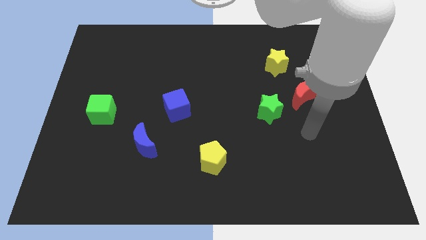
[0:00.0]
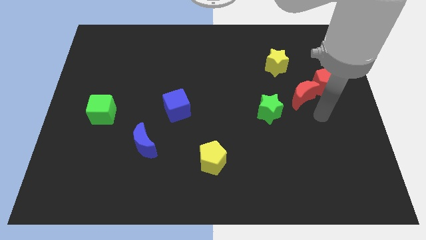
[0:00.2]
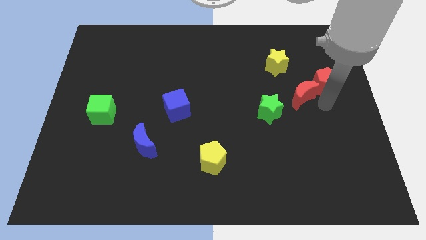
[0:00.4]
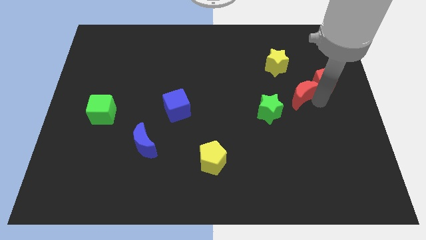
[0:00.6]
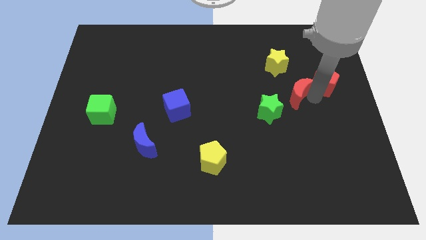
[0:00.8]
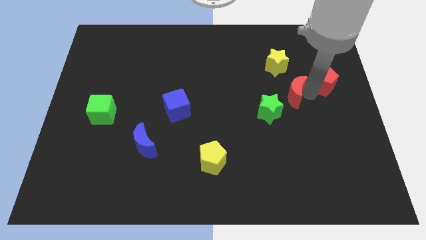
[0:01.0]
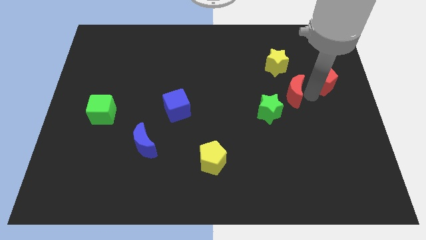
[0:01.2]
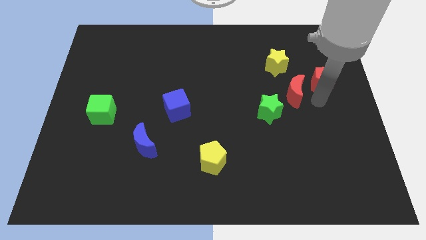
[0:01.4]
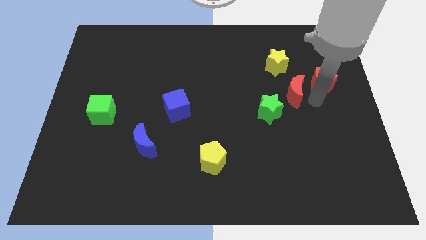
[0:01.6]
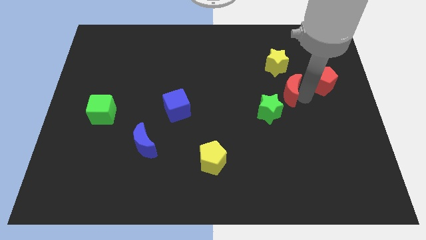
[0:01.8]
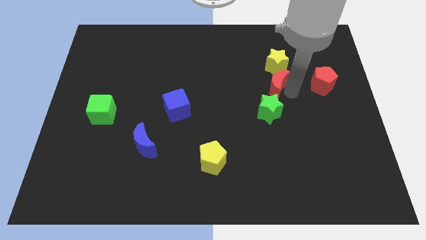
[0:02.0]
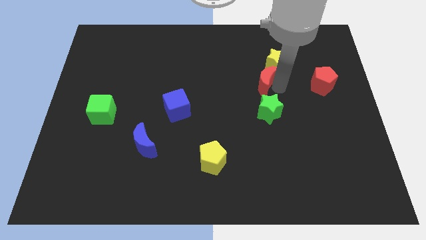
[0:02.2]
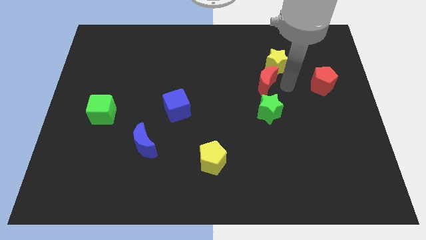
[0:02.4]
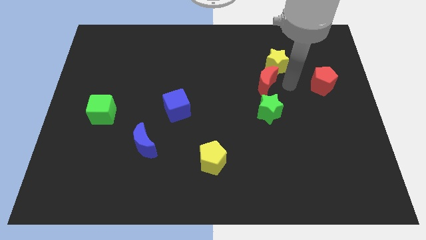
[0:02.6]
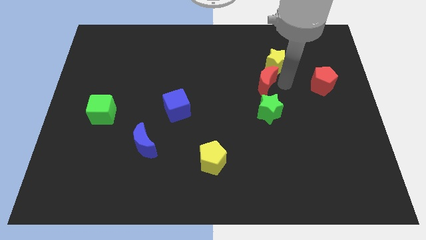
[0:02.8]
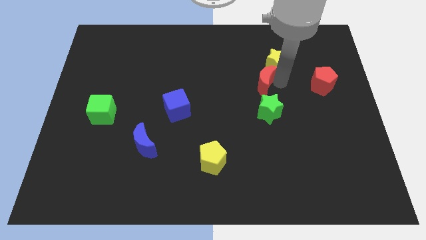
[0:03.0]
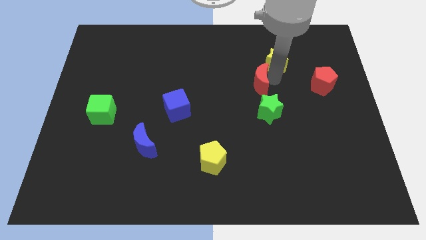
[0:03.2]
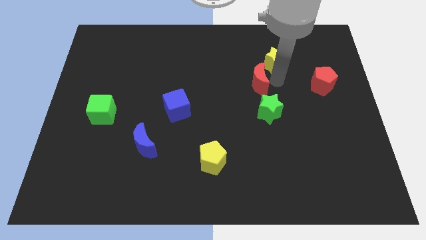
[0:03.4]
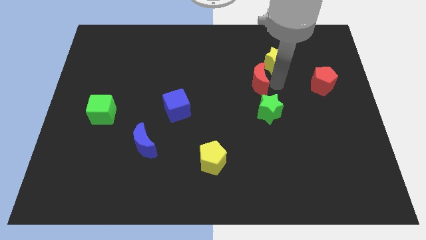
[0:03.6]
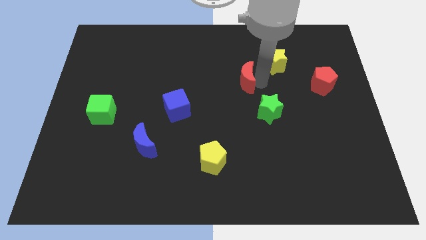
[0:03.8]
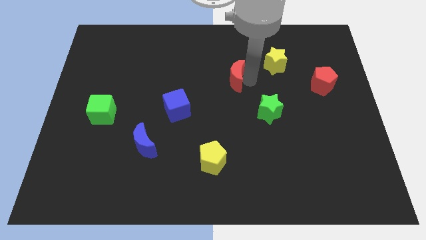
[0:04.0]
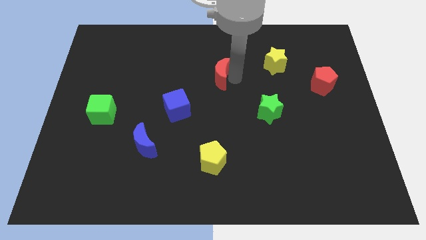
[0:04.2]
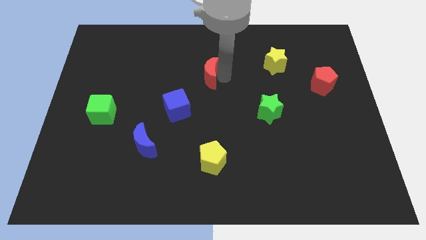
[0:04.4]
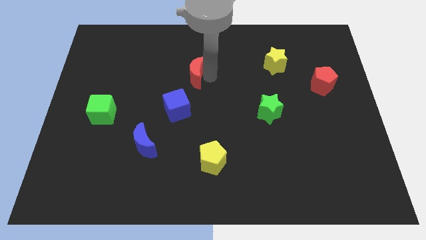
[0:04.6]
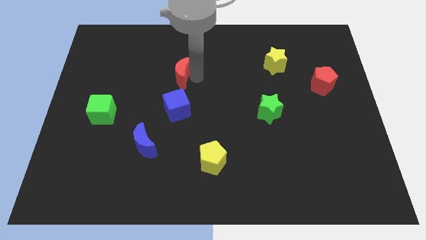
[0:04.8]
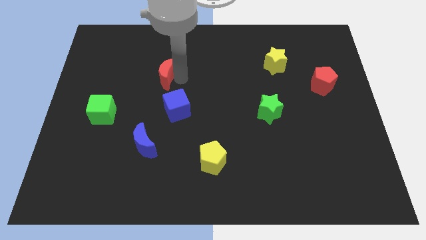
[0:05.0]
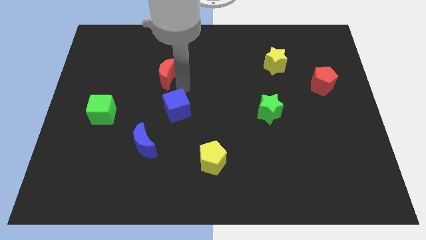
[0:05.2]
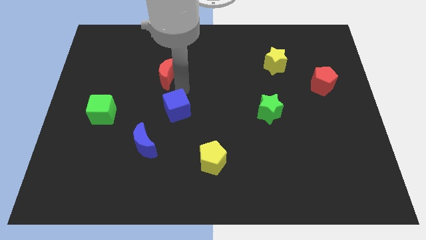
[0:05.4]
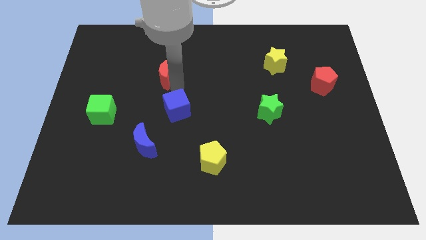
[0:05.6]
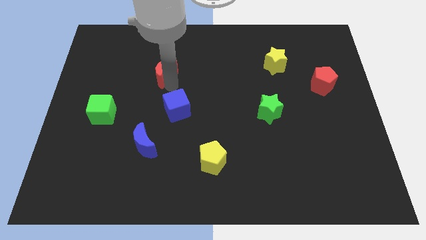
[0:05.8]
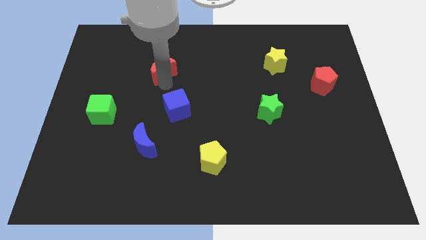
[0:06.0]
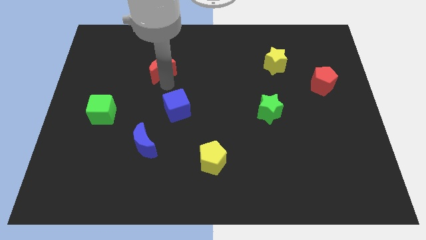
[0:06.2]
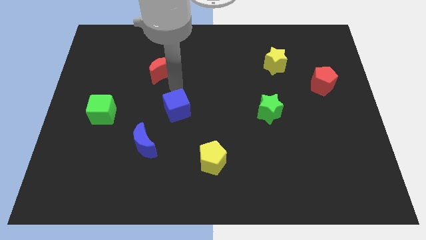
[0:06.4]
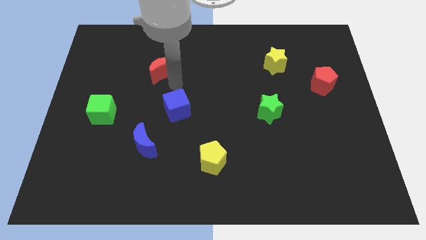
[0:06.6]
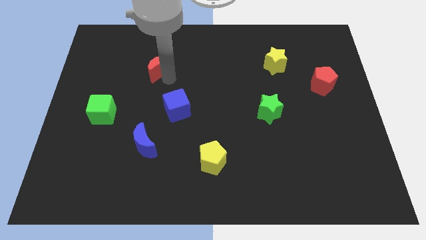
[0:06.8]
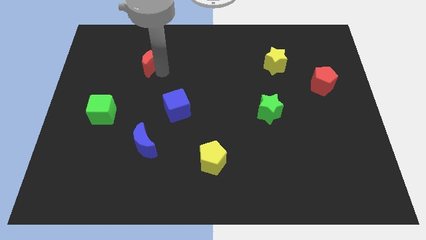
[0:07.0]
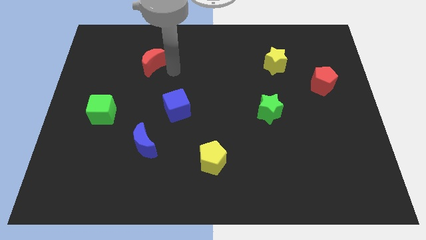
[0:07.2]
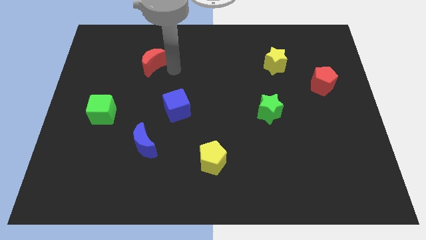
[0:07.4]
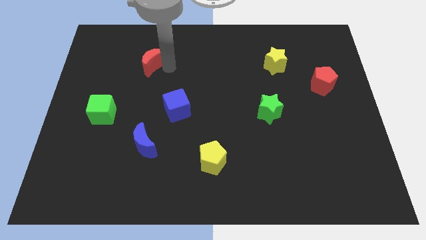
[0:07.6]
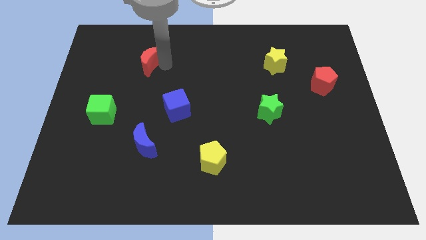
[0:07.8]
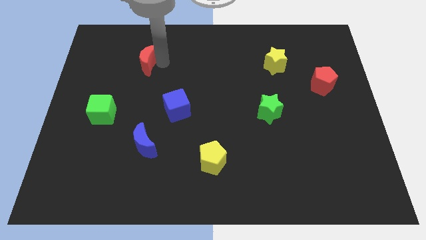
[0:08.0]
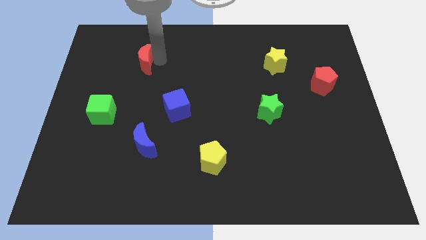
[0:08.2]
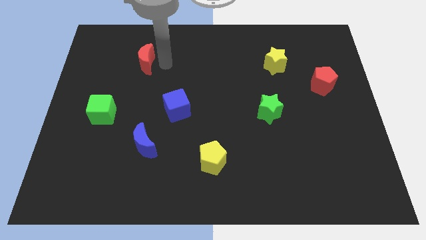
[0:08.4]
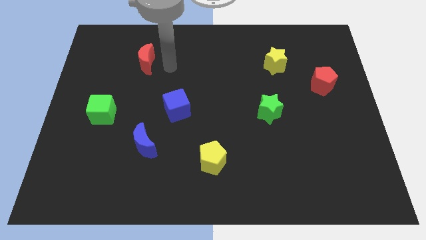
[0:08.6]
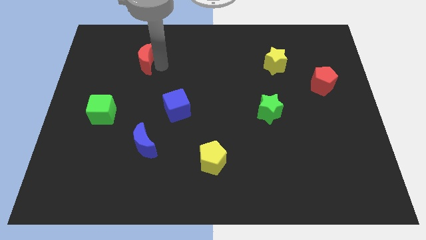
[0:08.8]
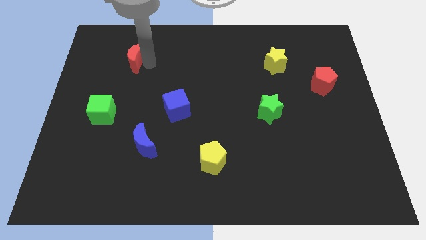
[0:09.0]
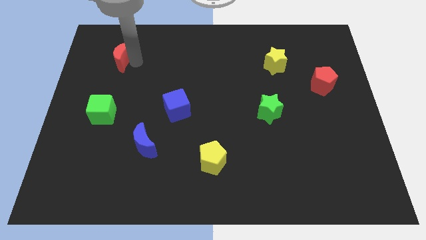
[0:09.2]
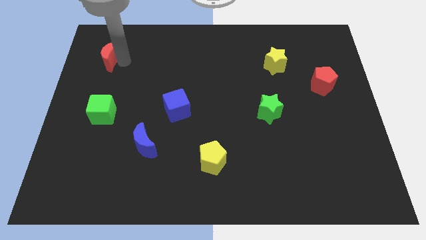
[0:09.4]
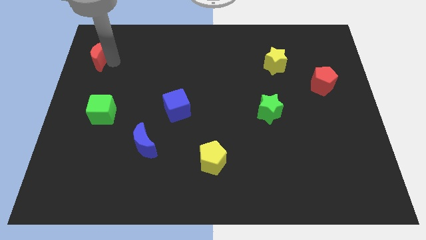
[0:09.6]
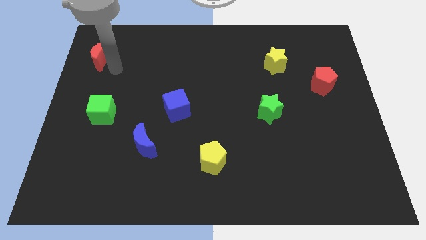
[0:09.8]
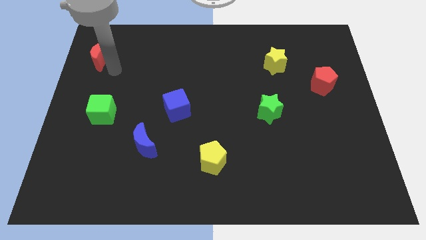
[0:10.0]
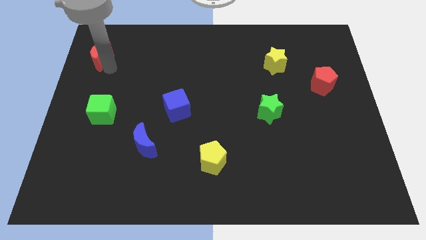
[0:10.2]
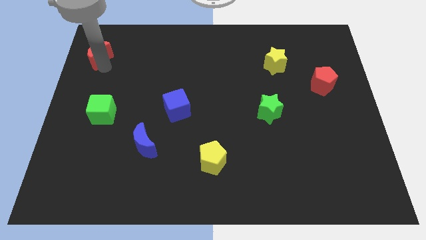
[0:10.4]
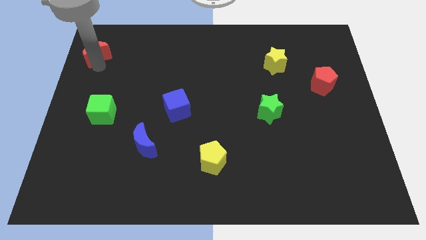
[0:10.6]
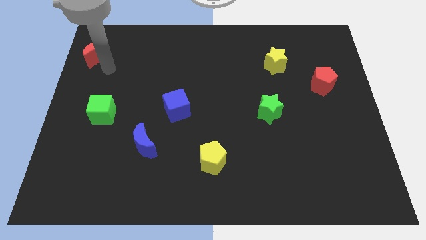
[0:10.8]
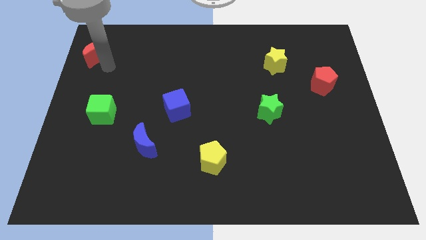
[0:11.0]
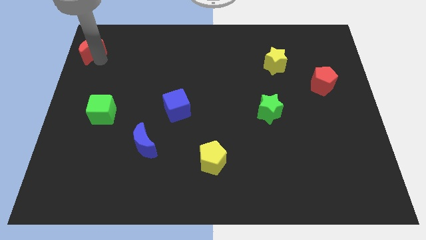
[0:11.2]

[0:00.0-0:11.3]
put the red moon to the top left of the board
